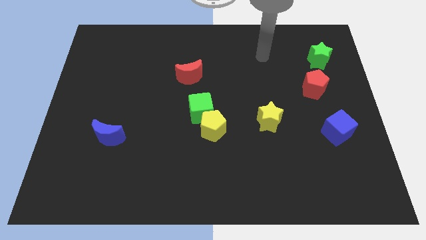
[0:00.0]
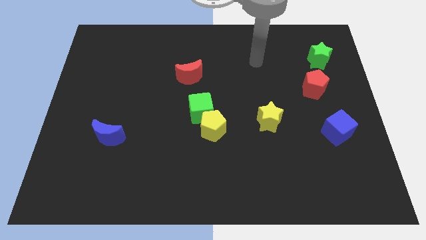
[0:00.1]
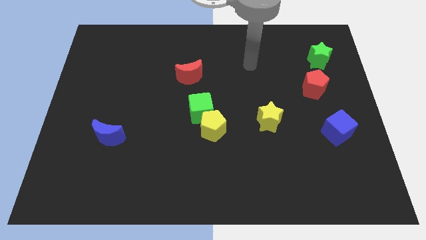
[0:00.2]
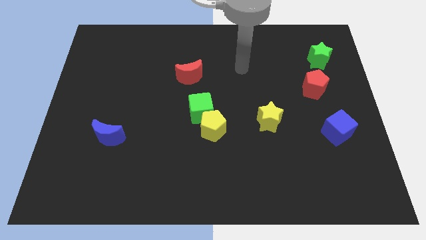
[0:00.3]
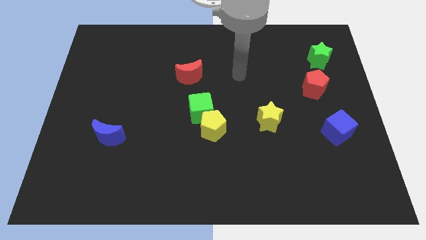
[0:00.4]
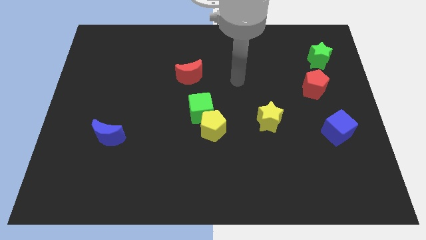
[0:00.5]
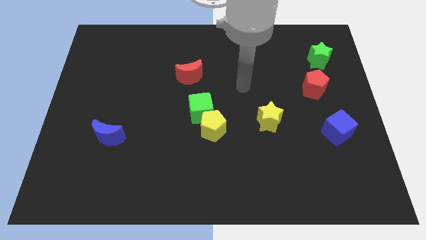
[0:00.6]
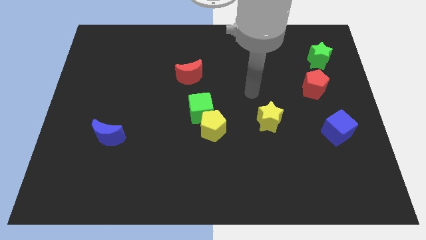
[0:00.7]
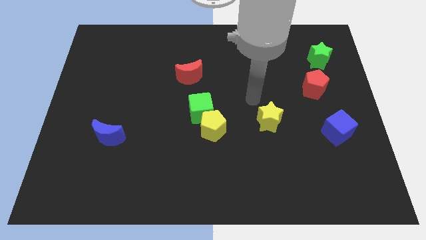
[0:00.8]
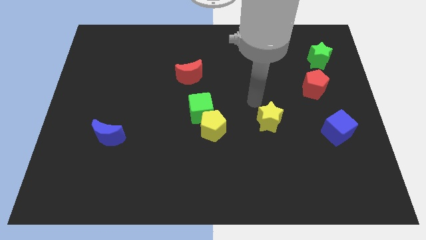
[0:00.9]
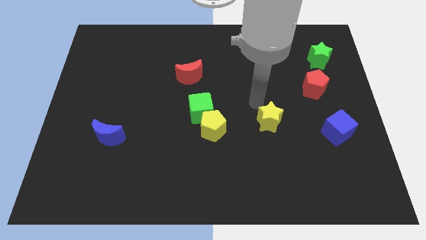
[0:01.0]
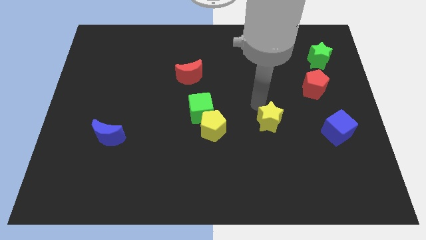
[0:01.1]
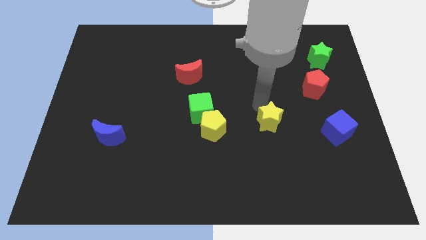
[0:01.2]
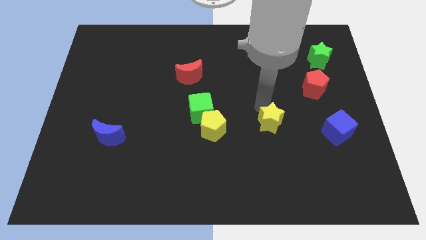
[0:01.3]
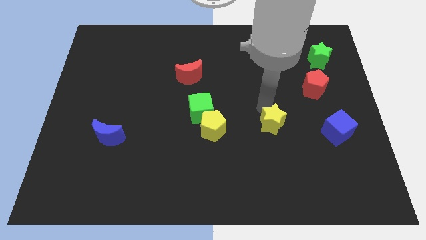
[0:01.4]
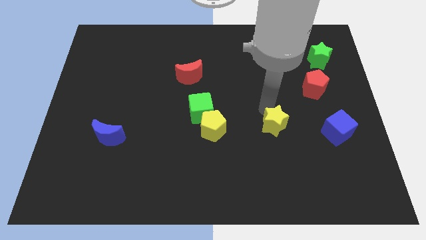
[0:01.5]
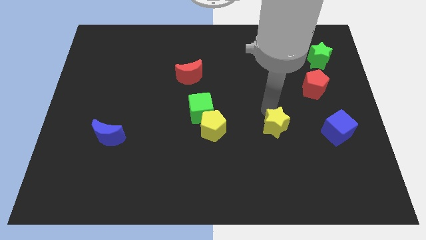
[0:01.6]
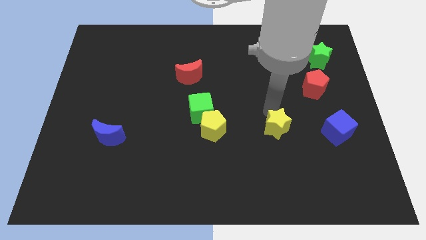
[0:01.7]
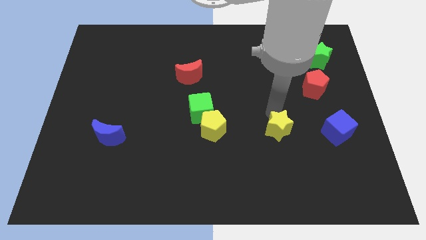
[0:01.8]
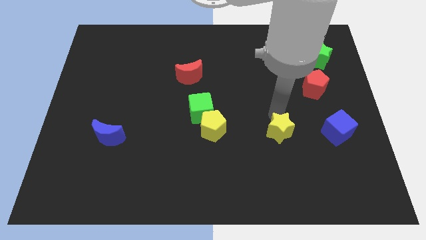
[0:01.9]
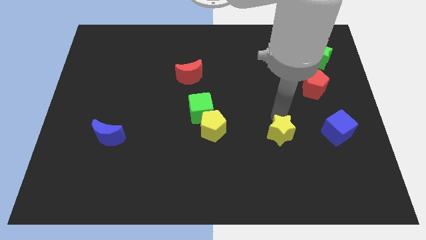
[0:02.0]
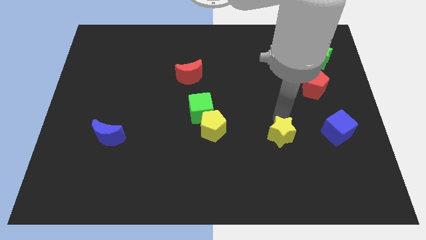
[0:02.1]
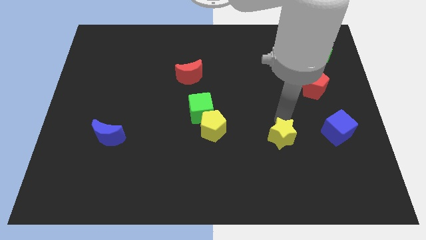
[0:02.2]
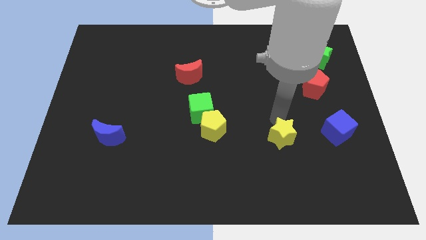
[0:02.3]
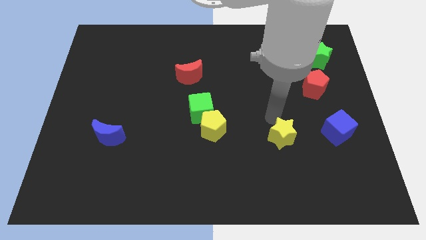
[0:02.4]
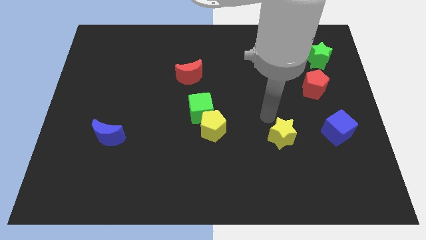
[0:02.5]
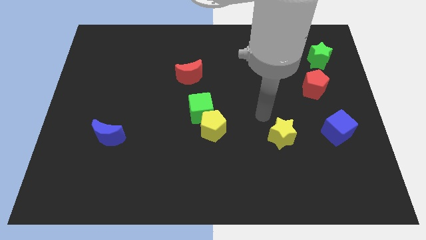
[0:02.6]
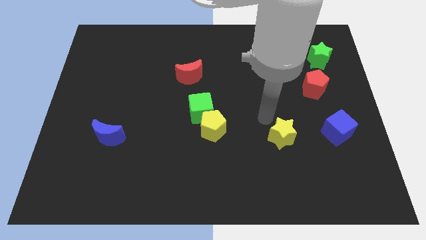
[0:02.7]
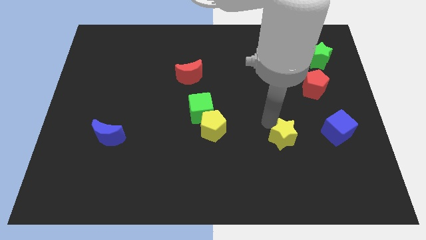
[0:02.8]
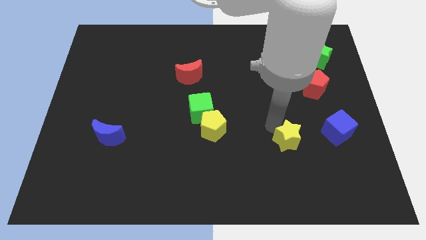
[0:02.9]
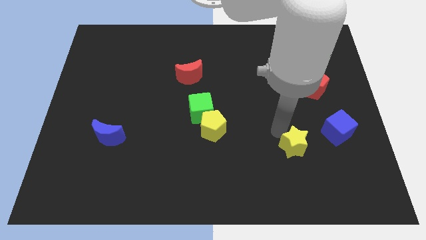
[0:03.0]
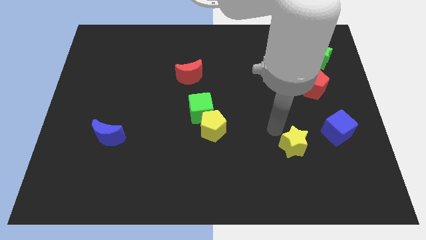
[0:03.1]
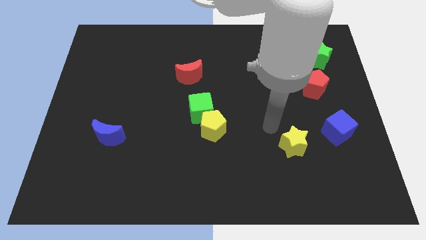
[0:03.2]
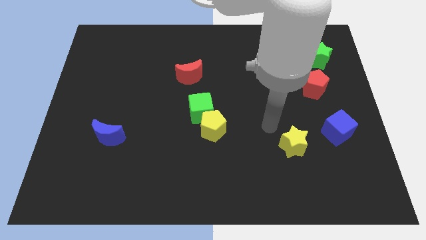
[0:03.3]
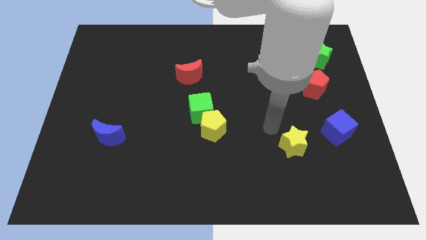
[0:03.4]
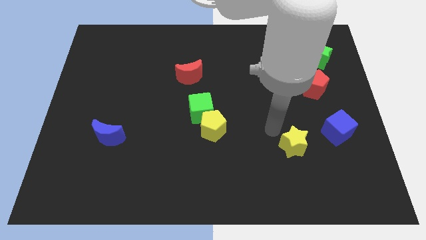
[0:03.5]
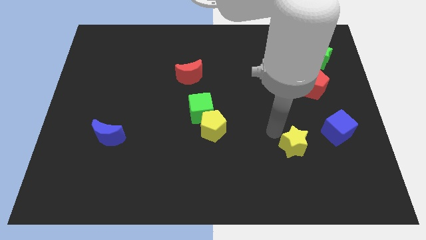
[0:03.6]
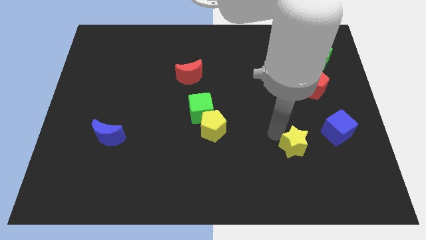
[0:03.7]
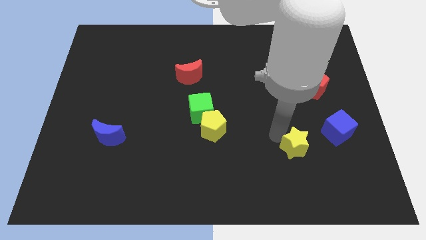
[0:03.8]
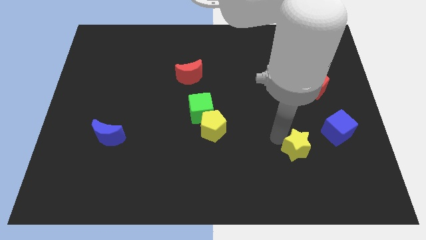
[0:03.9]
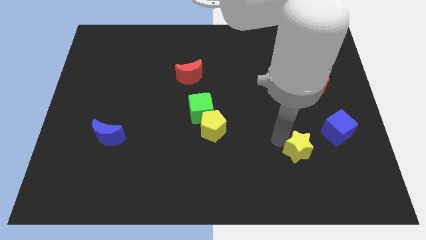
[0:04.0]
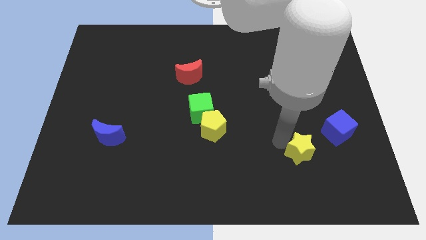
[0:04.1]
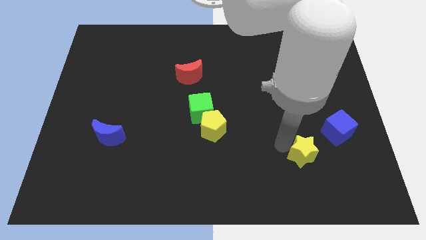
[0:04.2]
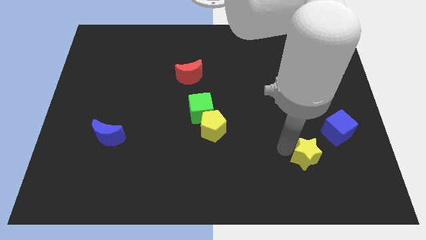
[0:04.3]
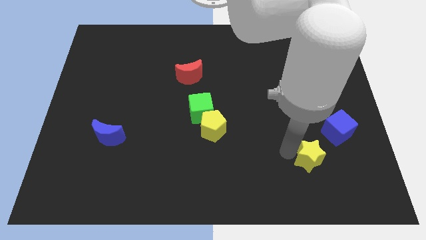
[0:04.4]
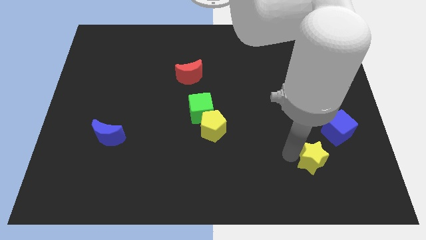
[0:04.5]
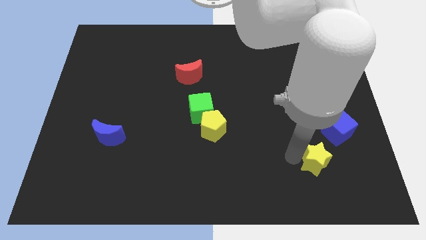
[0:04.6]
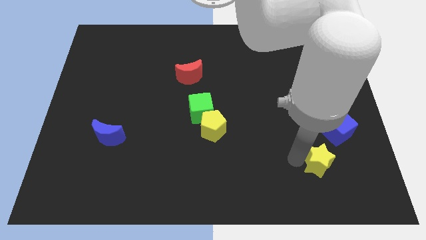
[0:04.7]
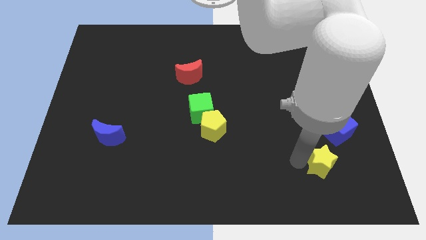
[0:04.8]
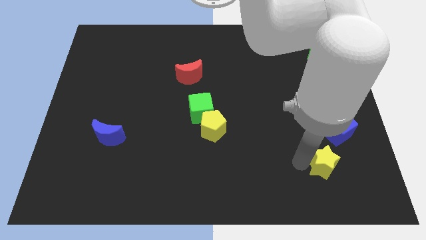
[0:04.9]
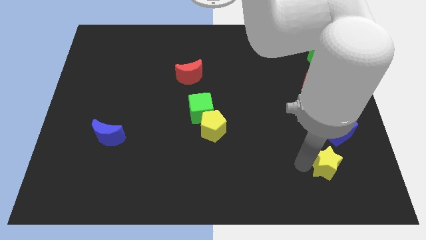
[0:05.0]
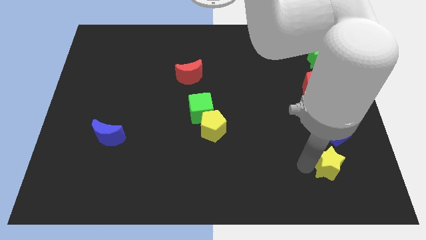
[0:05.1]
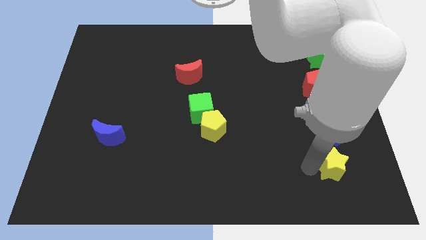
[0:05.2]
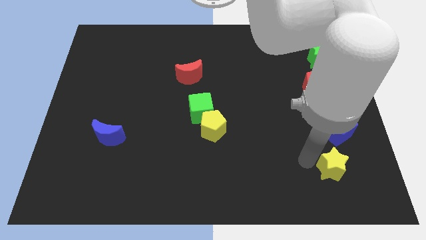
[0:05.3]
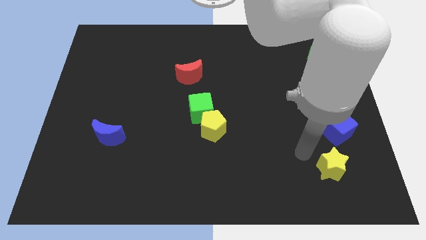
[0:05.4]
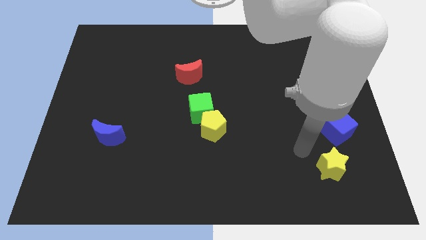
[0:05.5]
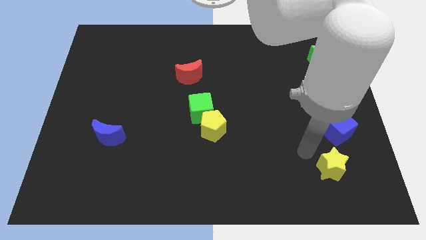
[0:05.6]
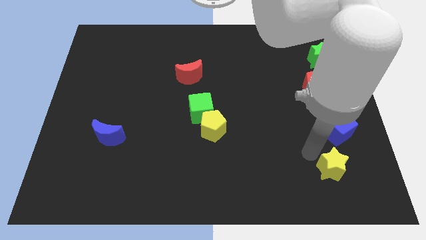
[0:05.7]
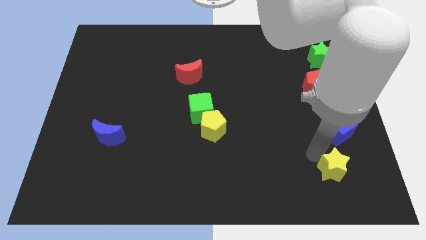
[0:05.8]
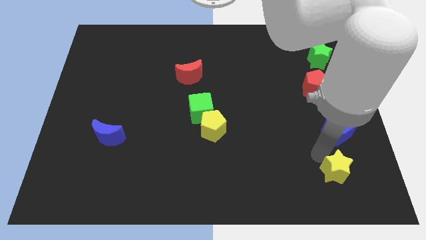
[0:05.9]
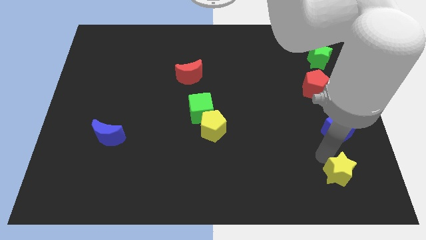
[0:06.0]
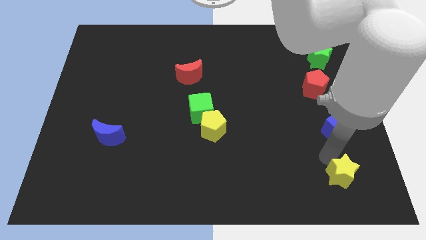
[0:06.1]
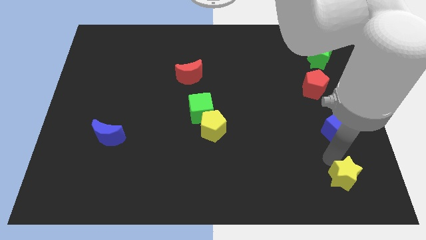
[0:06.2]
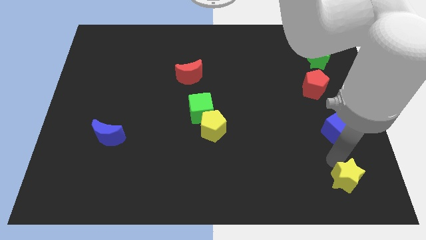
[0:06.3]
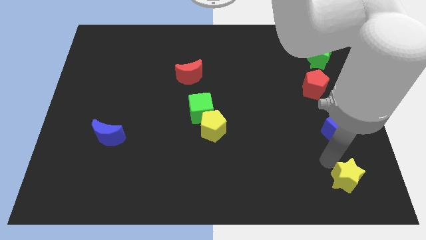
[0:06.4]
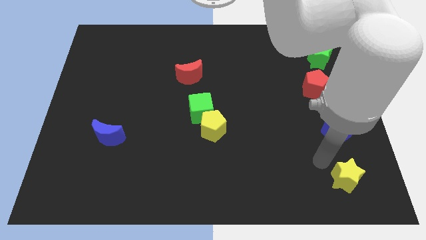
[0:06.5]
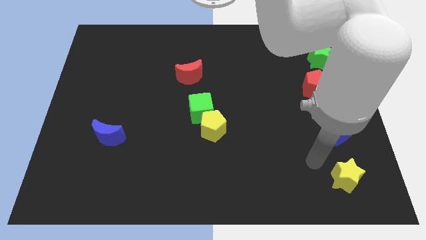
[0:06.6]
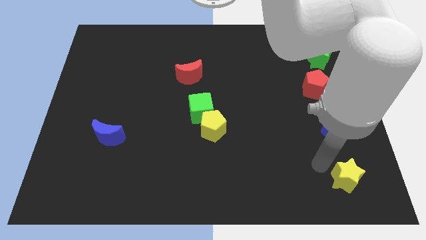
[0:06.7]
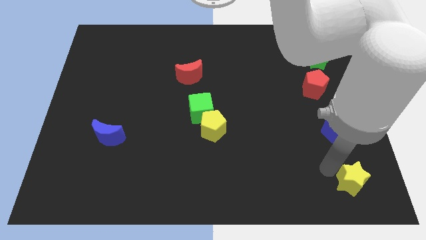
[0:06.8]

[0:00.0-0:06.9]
push the yellow star to the bottom right
